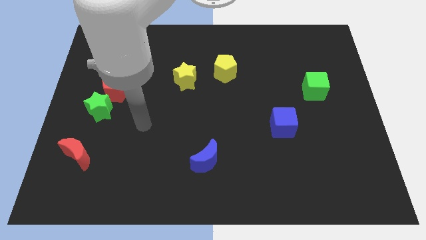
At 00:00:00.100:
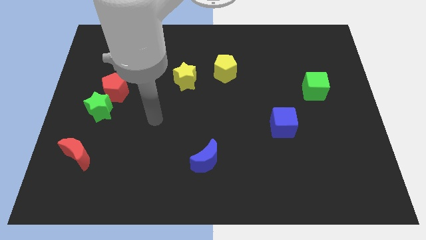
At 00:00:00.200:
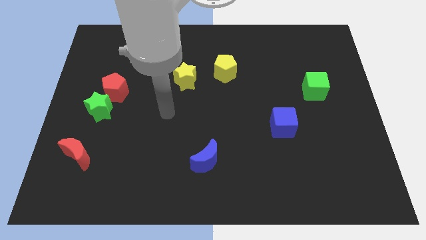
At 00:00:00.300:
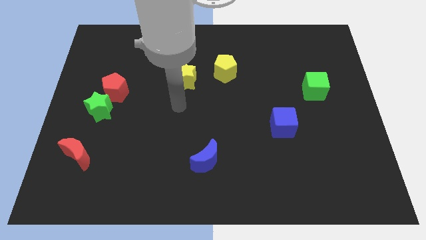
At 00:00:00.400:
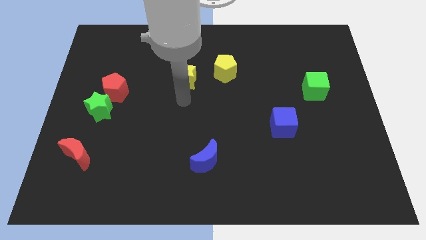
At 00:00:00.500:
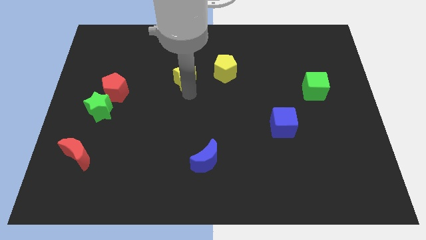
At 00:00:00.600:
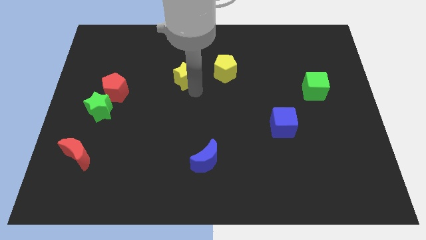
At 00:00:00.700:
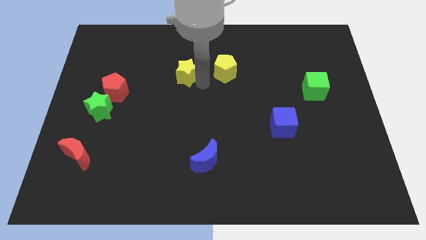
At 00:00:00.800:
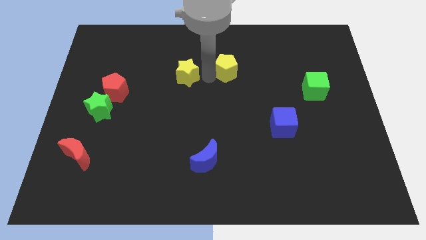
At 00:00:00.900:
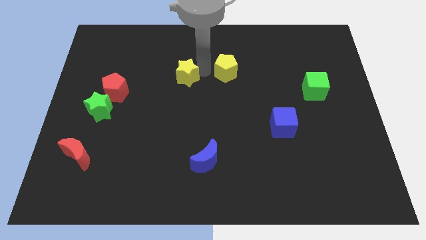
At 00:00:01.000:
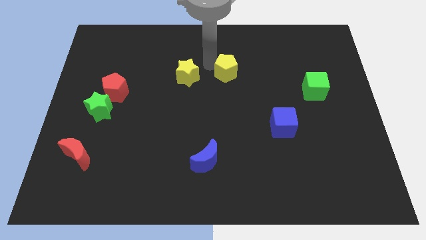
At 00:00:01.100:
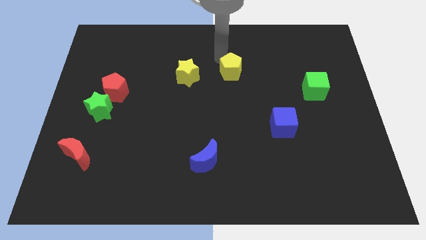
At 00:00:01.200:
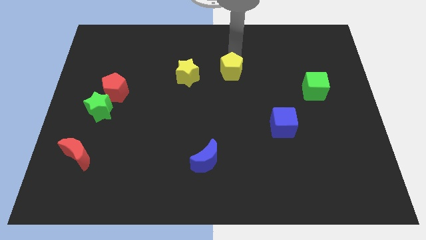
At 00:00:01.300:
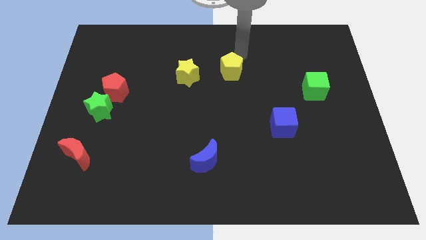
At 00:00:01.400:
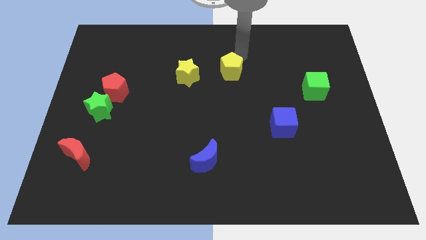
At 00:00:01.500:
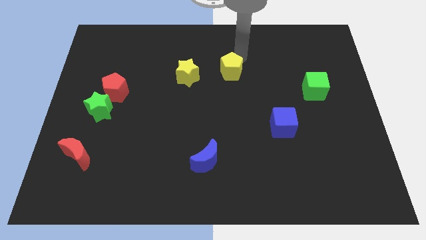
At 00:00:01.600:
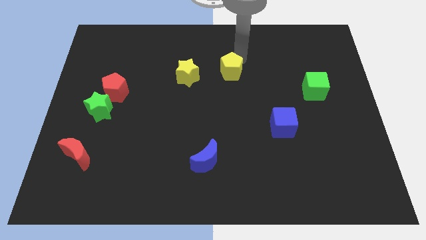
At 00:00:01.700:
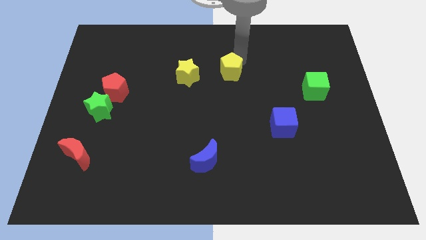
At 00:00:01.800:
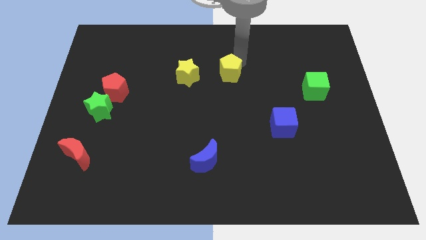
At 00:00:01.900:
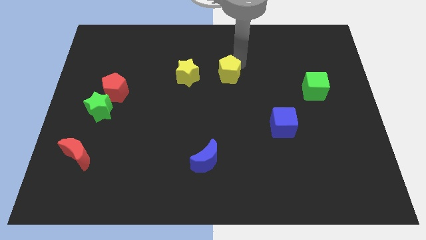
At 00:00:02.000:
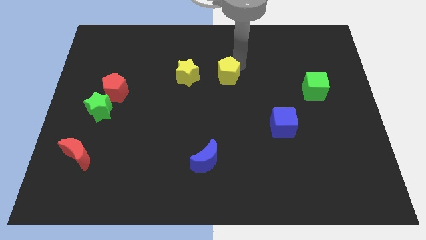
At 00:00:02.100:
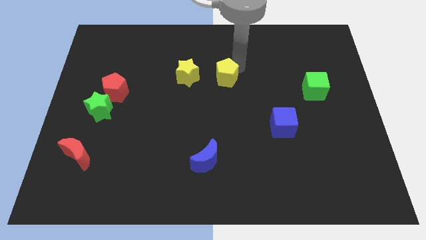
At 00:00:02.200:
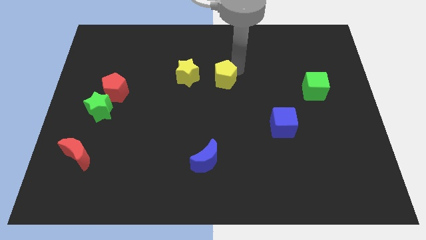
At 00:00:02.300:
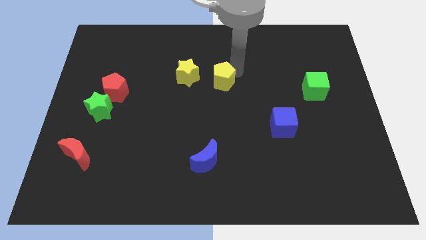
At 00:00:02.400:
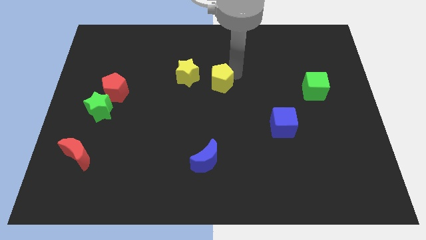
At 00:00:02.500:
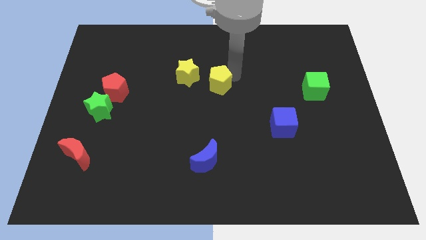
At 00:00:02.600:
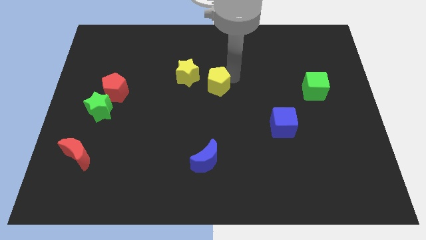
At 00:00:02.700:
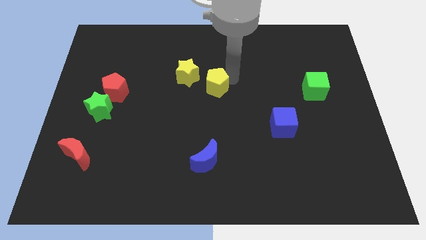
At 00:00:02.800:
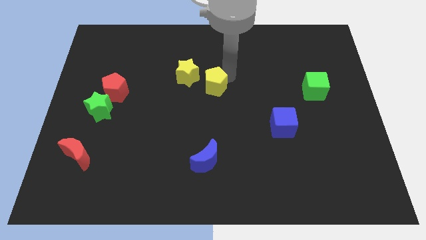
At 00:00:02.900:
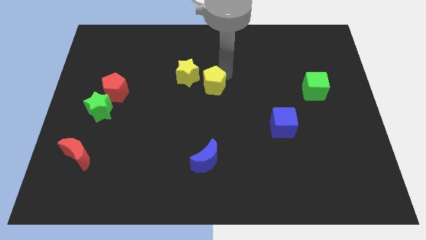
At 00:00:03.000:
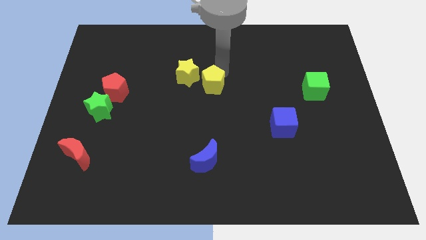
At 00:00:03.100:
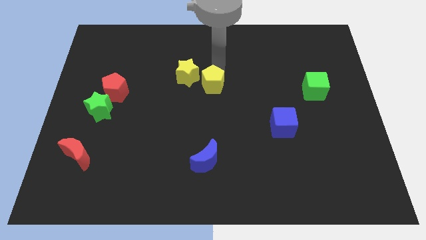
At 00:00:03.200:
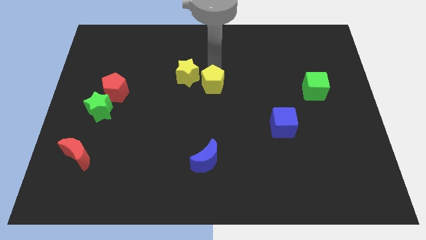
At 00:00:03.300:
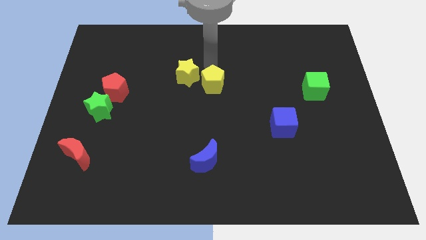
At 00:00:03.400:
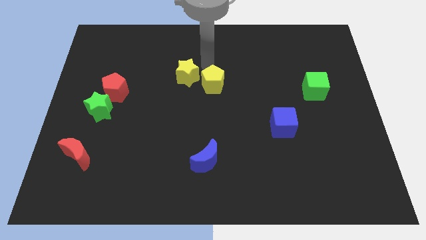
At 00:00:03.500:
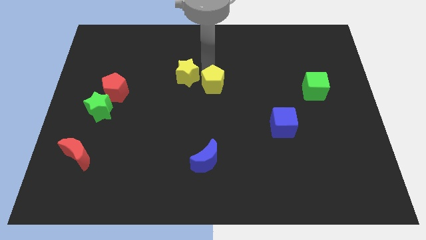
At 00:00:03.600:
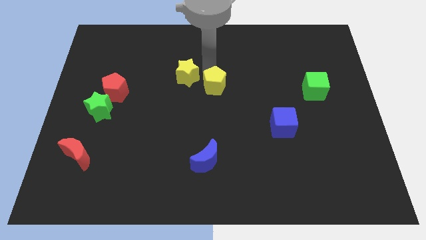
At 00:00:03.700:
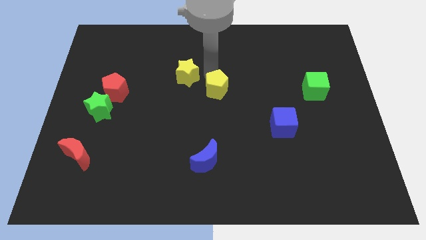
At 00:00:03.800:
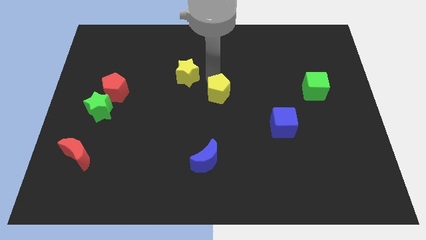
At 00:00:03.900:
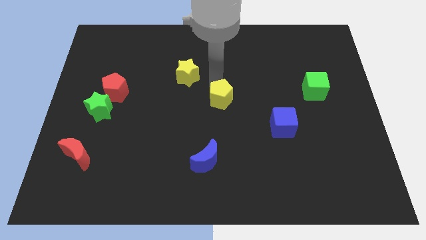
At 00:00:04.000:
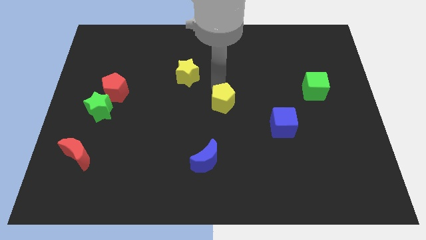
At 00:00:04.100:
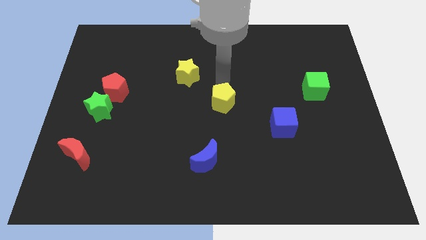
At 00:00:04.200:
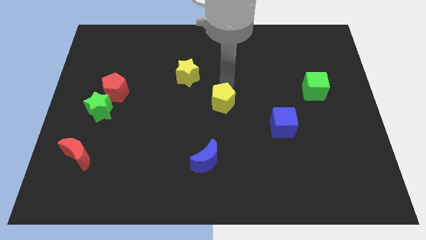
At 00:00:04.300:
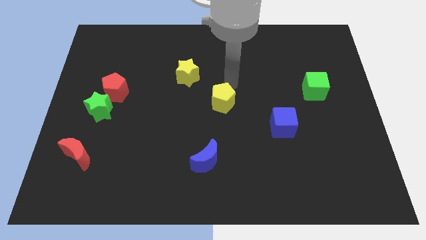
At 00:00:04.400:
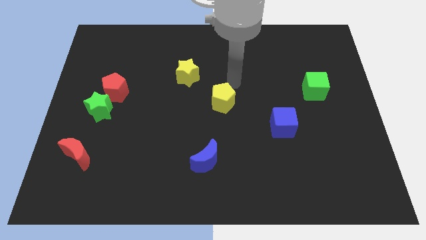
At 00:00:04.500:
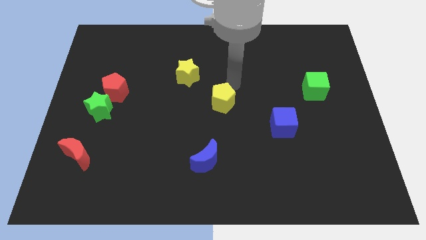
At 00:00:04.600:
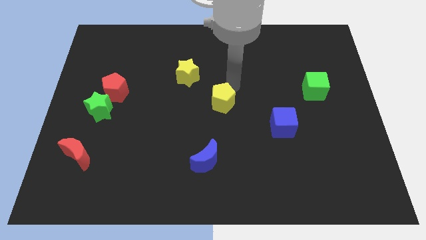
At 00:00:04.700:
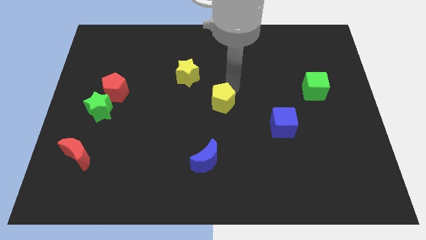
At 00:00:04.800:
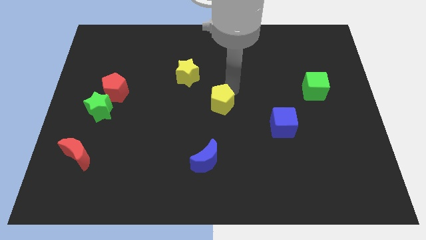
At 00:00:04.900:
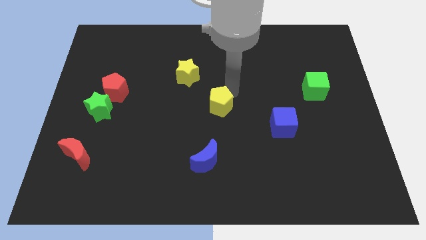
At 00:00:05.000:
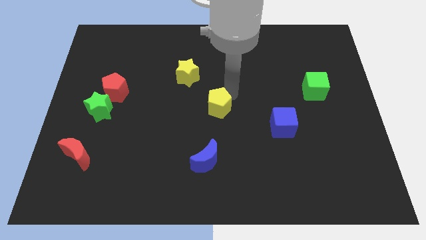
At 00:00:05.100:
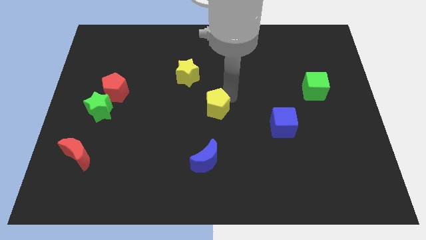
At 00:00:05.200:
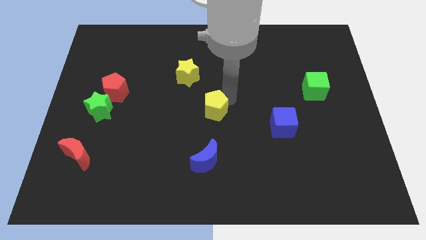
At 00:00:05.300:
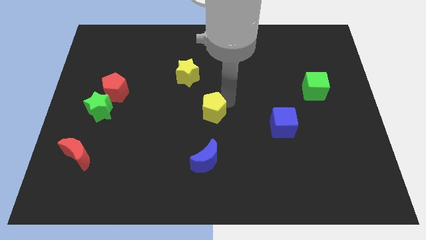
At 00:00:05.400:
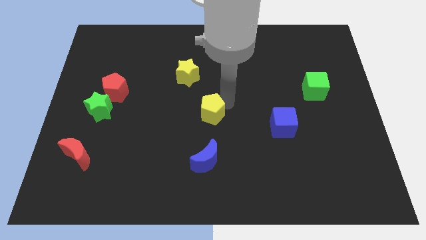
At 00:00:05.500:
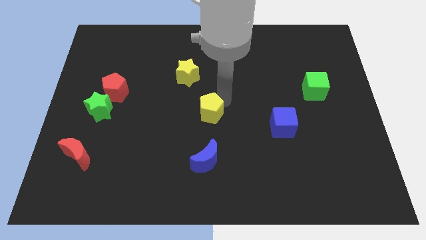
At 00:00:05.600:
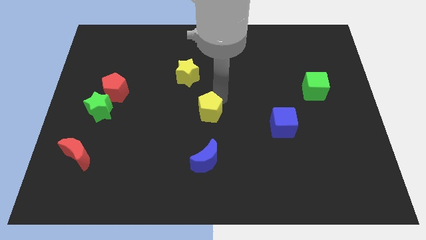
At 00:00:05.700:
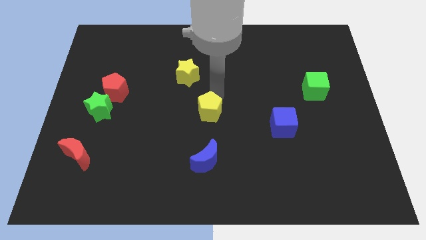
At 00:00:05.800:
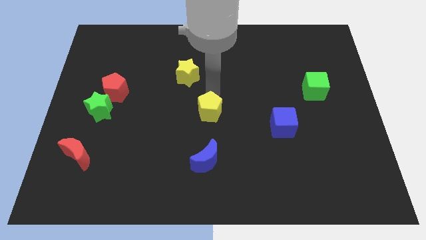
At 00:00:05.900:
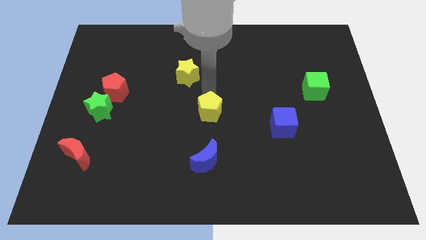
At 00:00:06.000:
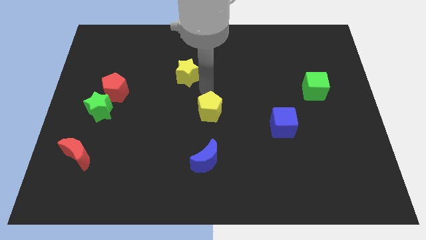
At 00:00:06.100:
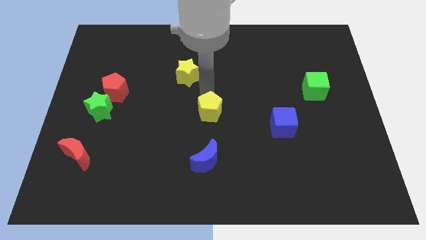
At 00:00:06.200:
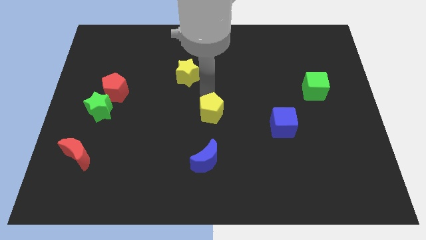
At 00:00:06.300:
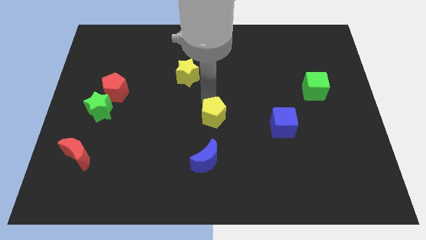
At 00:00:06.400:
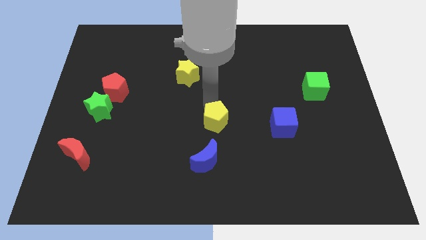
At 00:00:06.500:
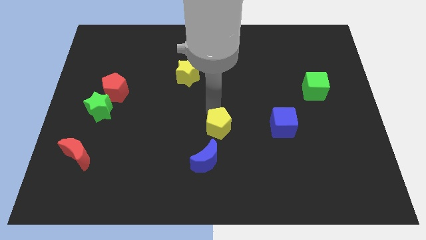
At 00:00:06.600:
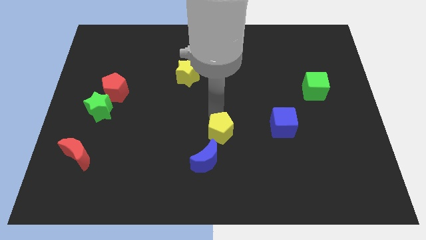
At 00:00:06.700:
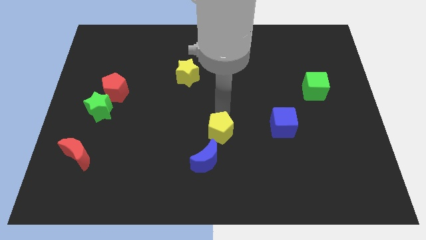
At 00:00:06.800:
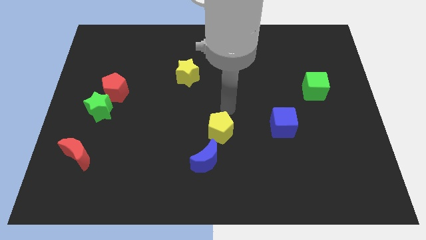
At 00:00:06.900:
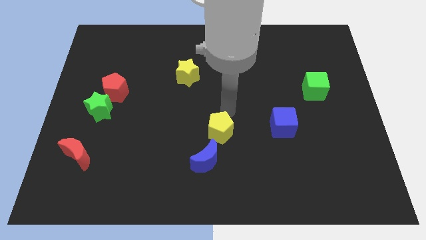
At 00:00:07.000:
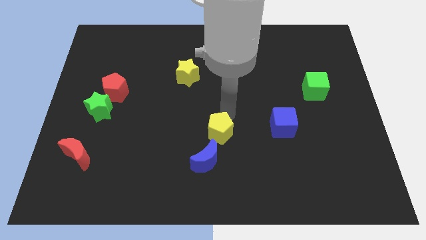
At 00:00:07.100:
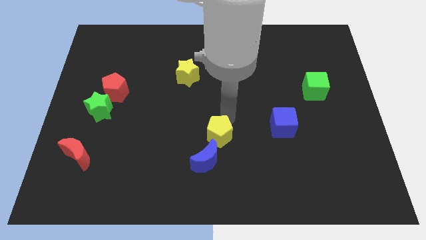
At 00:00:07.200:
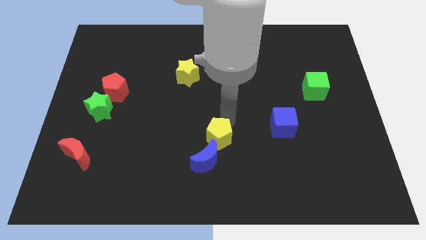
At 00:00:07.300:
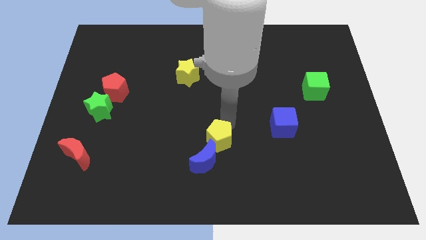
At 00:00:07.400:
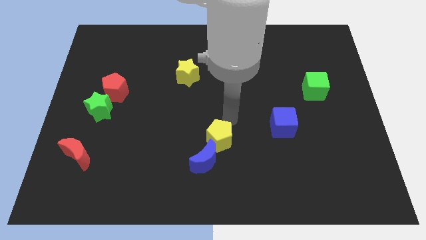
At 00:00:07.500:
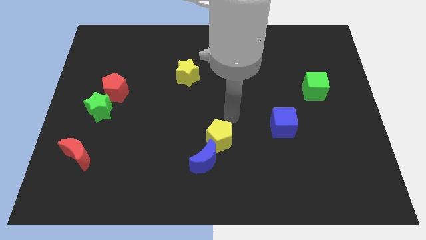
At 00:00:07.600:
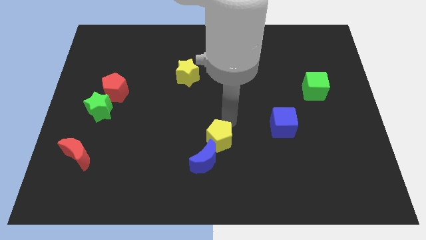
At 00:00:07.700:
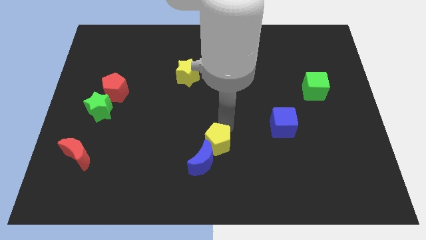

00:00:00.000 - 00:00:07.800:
put the yellow pentagon towards the blue moon
